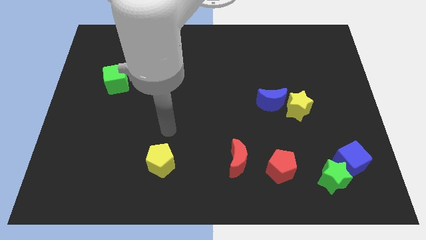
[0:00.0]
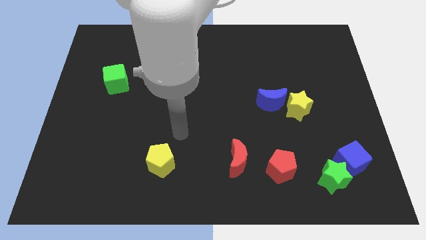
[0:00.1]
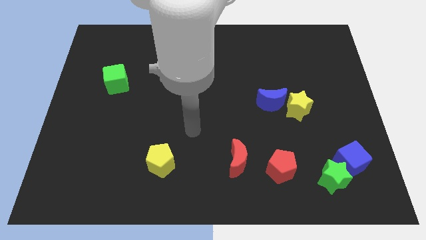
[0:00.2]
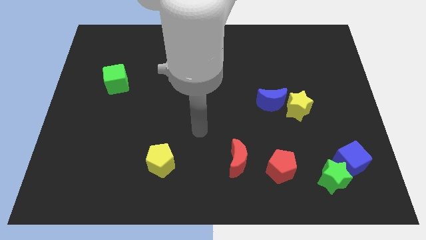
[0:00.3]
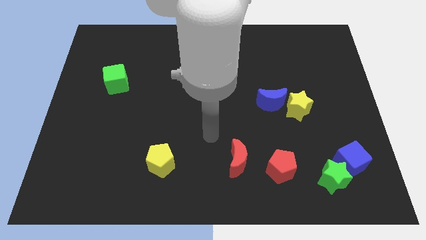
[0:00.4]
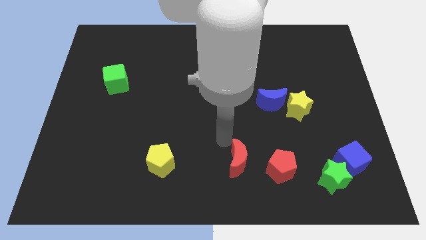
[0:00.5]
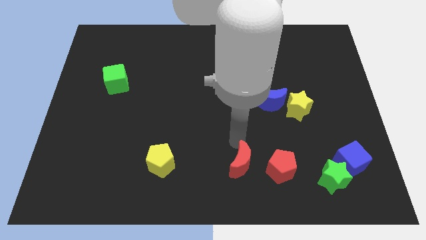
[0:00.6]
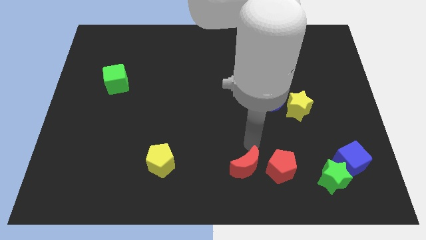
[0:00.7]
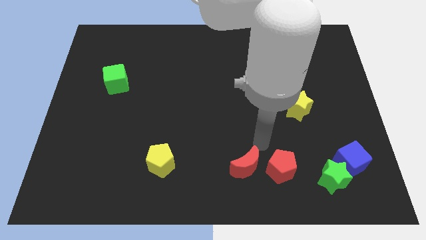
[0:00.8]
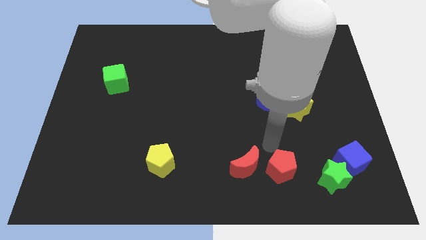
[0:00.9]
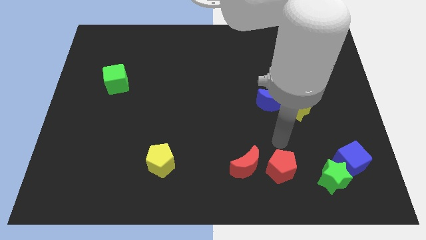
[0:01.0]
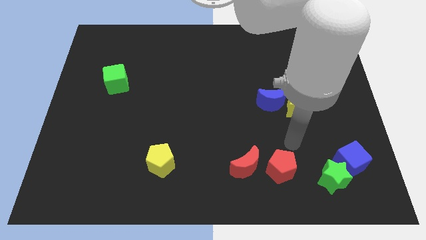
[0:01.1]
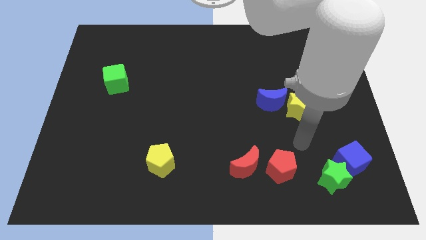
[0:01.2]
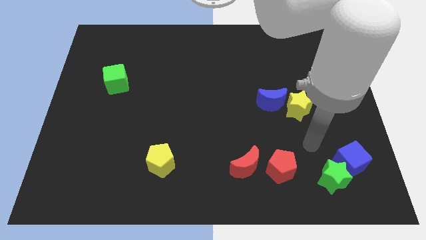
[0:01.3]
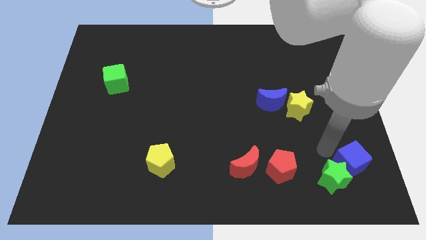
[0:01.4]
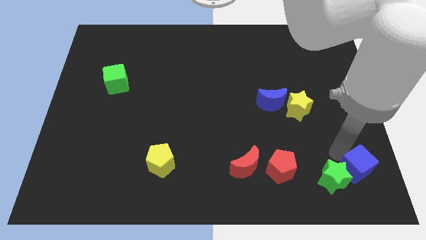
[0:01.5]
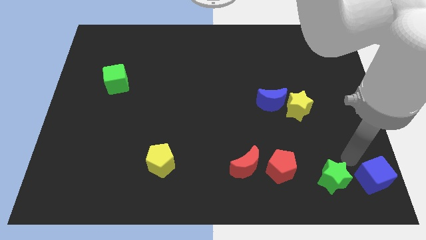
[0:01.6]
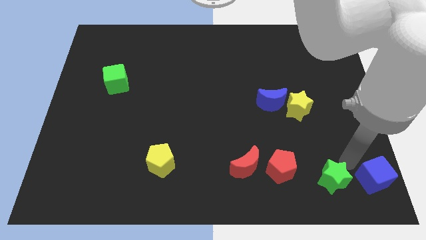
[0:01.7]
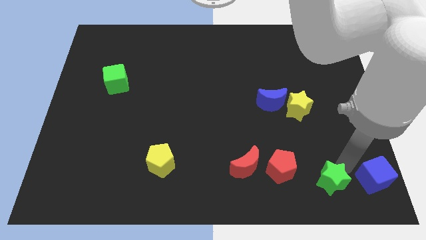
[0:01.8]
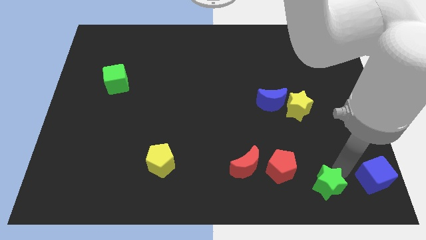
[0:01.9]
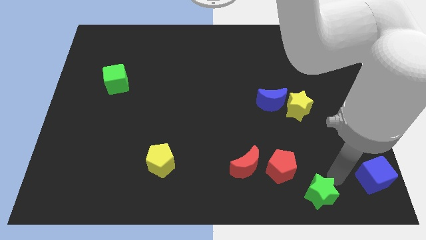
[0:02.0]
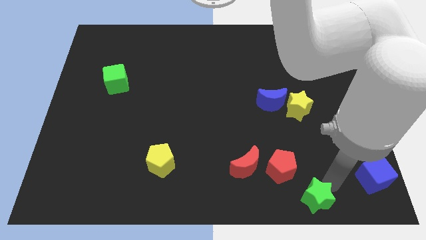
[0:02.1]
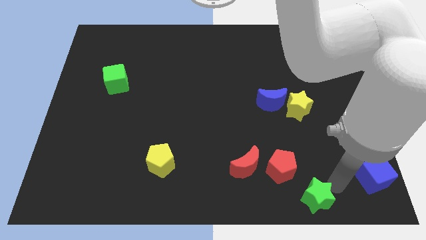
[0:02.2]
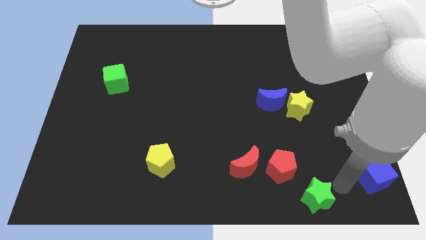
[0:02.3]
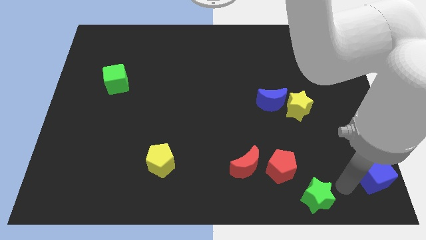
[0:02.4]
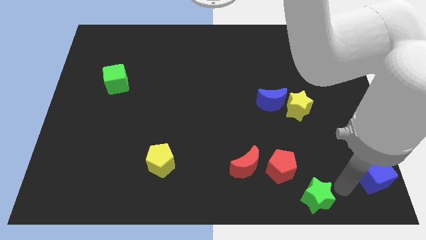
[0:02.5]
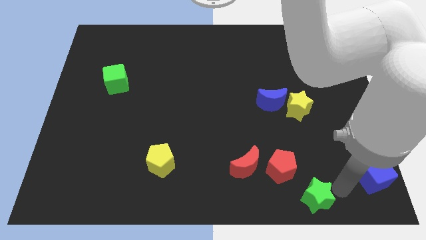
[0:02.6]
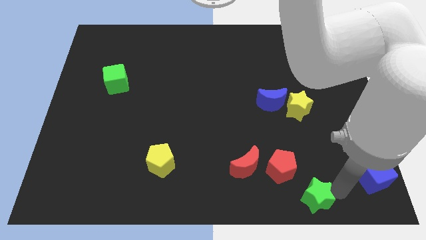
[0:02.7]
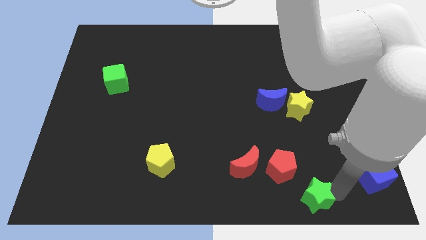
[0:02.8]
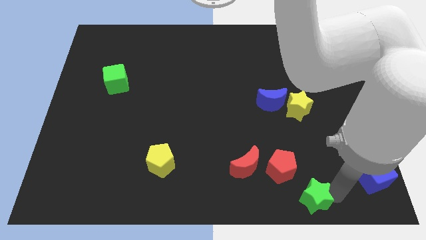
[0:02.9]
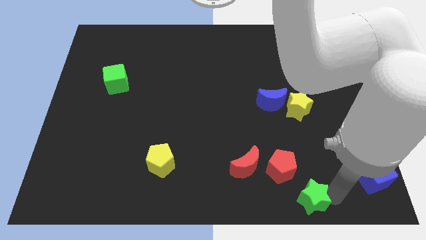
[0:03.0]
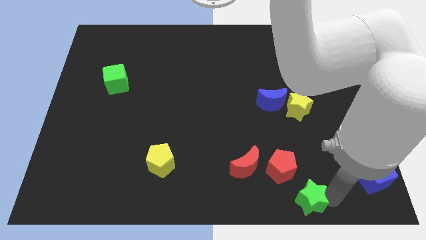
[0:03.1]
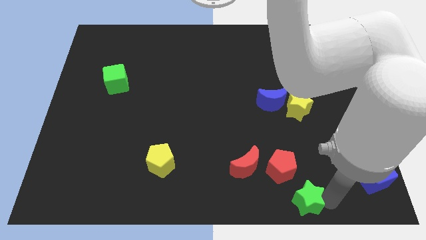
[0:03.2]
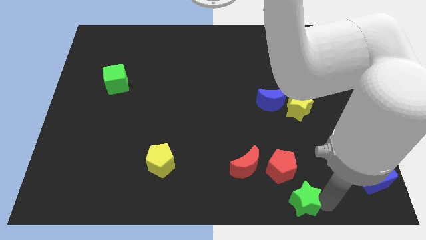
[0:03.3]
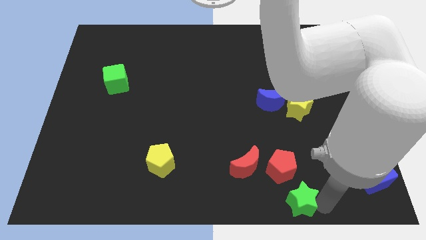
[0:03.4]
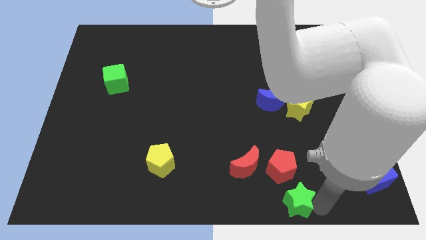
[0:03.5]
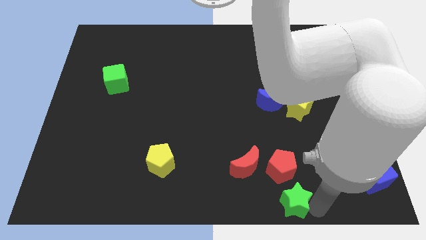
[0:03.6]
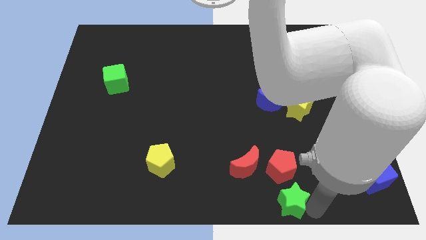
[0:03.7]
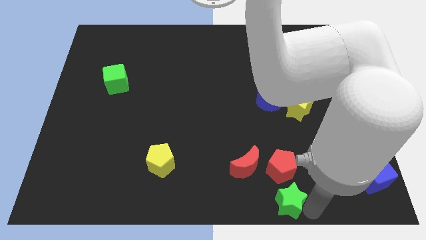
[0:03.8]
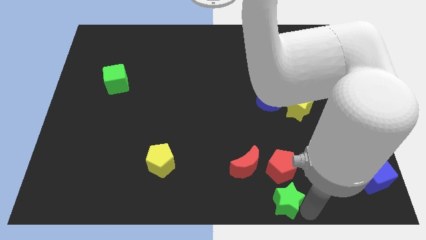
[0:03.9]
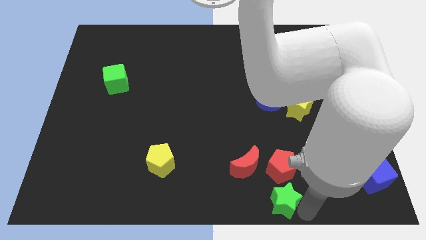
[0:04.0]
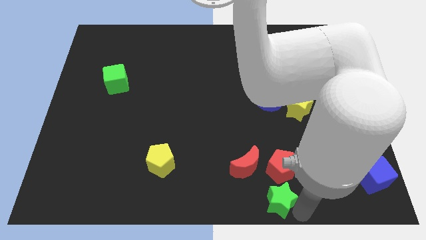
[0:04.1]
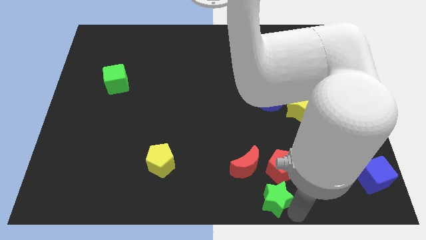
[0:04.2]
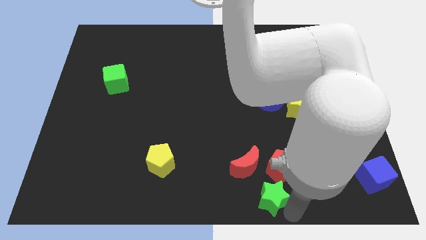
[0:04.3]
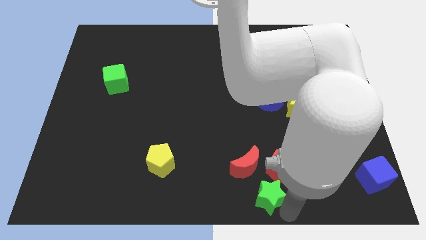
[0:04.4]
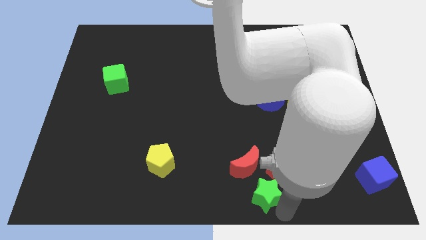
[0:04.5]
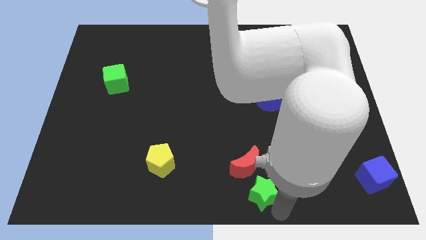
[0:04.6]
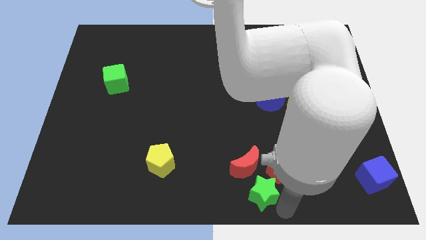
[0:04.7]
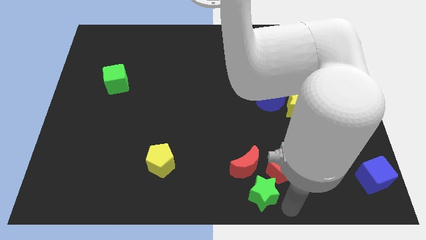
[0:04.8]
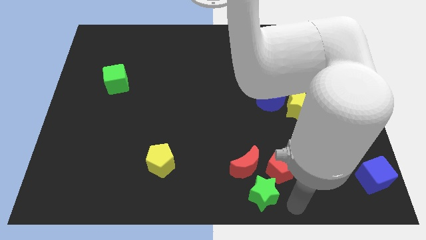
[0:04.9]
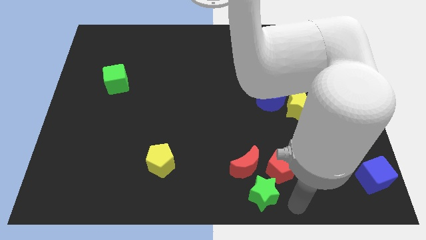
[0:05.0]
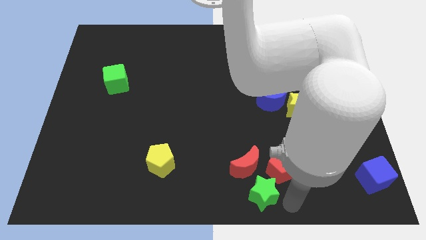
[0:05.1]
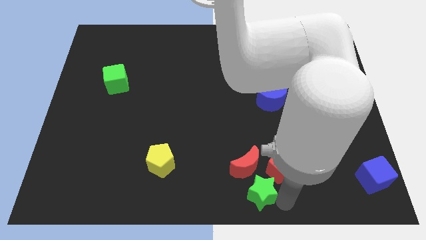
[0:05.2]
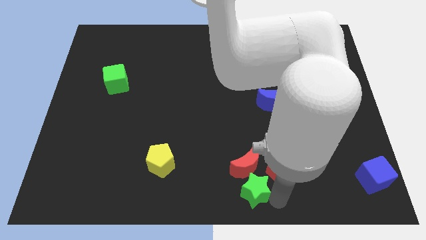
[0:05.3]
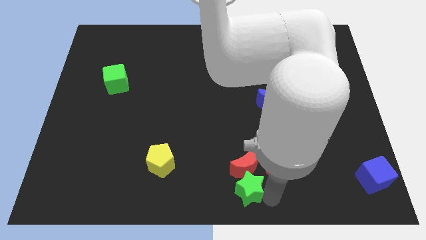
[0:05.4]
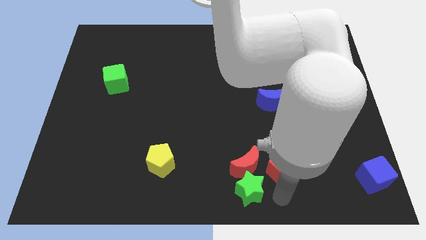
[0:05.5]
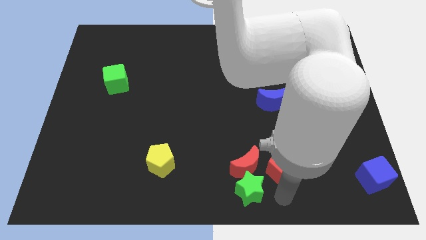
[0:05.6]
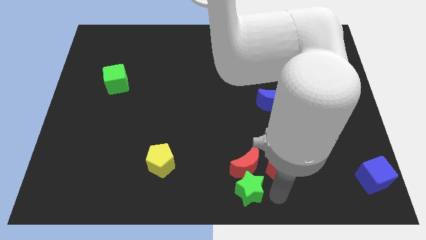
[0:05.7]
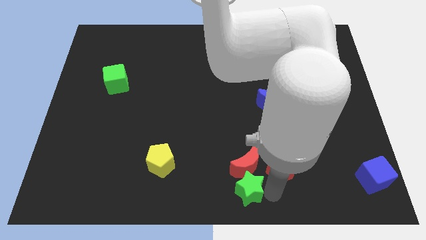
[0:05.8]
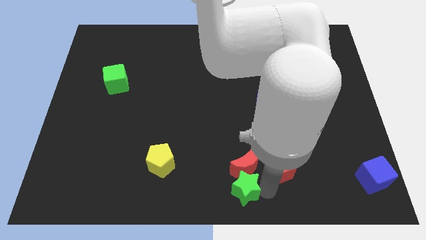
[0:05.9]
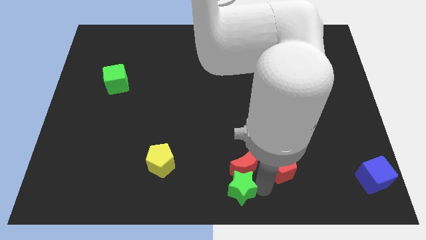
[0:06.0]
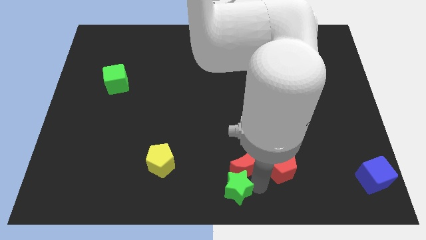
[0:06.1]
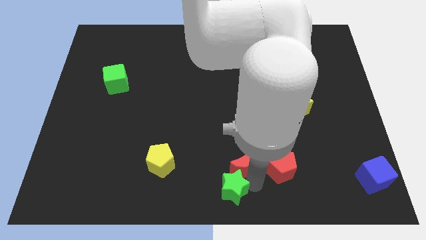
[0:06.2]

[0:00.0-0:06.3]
slide the green star to the left

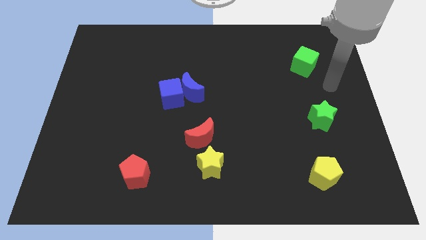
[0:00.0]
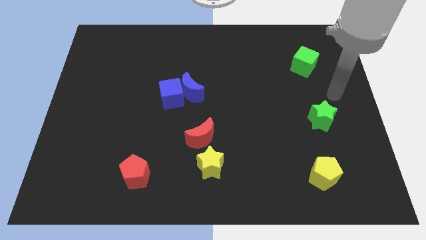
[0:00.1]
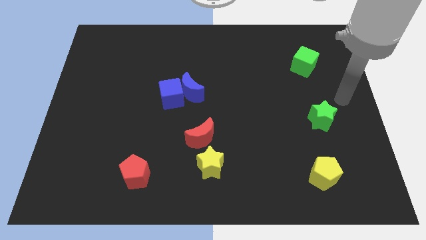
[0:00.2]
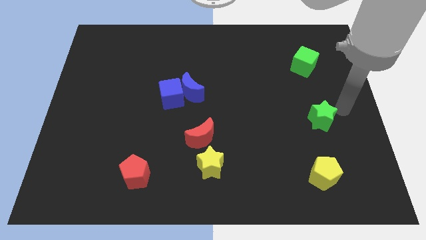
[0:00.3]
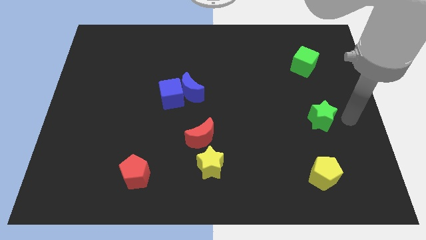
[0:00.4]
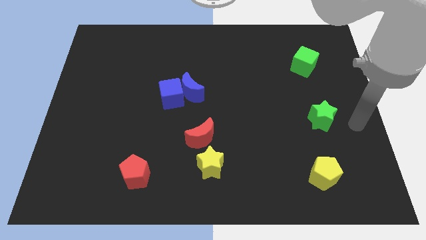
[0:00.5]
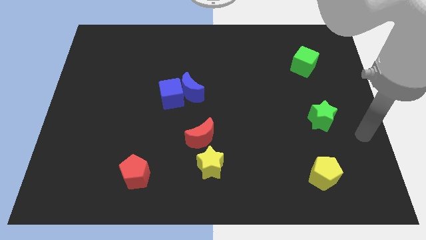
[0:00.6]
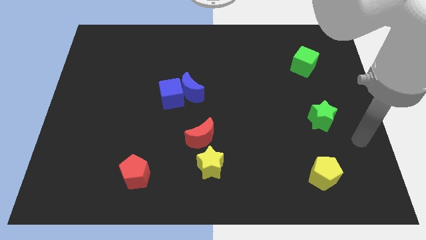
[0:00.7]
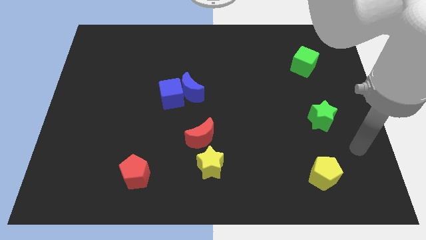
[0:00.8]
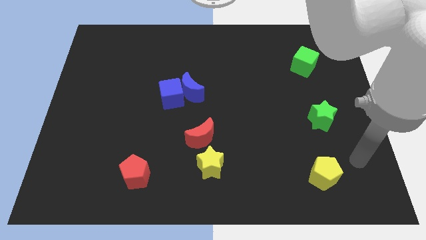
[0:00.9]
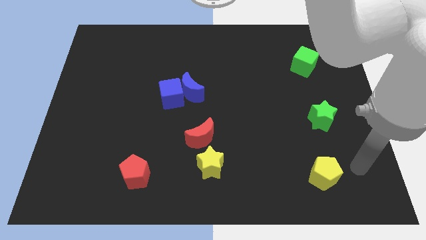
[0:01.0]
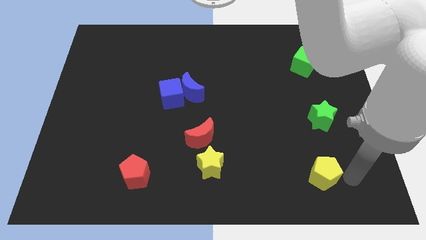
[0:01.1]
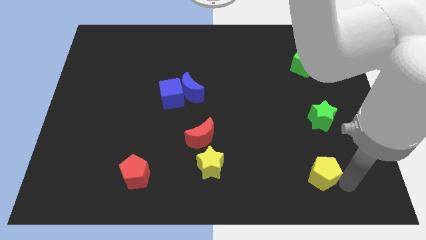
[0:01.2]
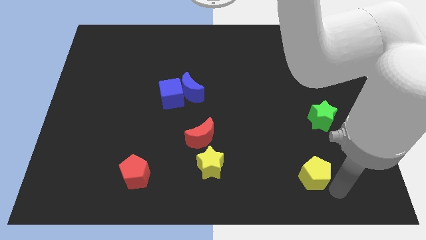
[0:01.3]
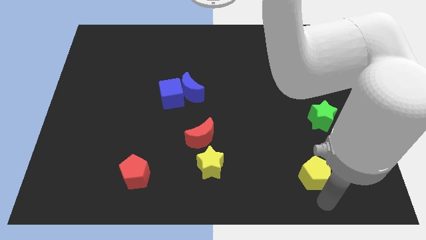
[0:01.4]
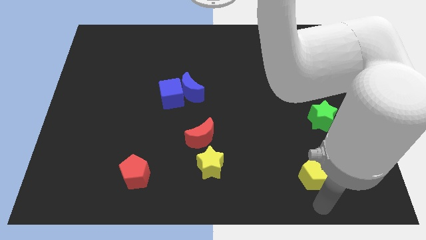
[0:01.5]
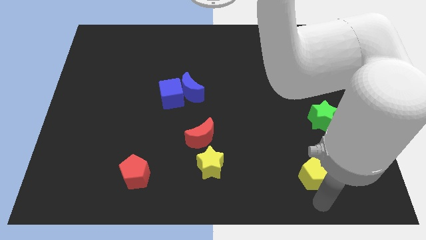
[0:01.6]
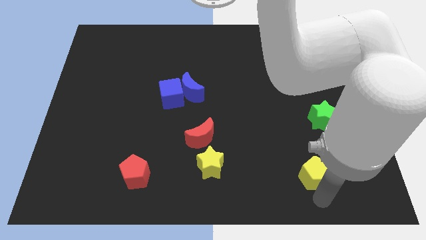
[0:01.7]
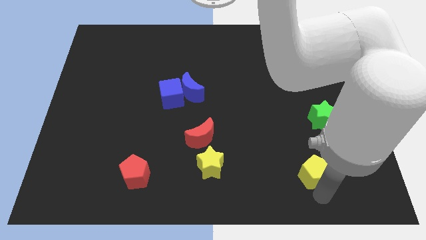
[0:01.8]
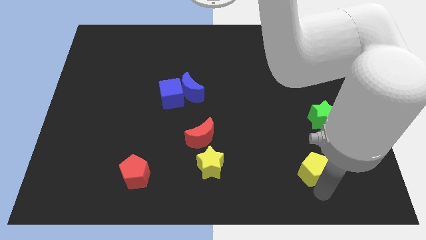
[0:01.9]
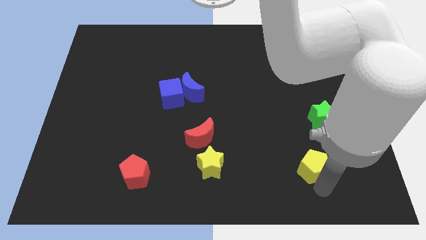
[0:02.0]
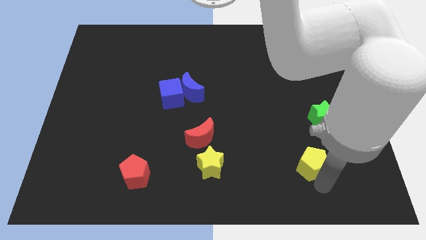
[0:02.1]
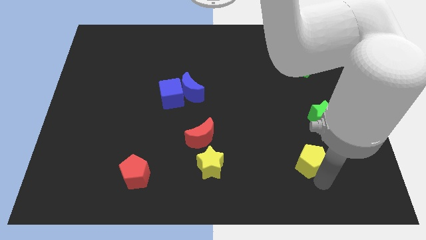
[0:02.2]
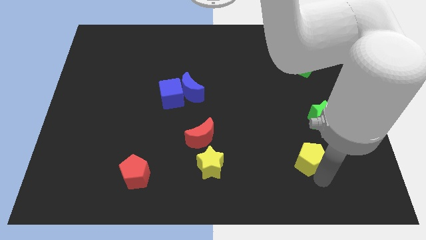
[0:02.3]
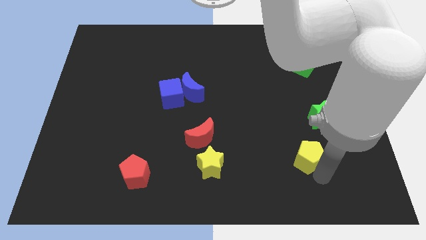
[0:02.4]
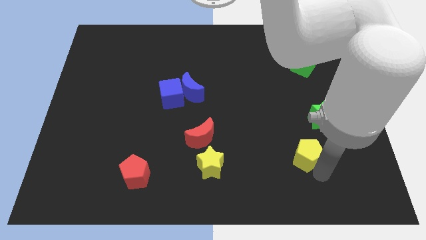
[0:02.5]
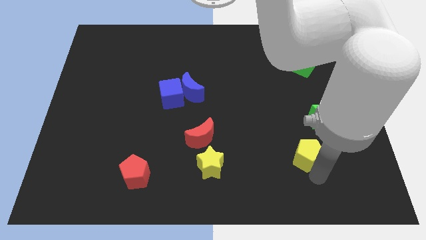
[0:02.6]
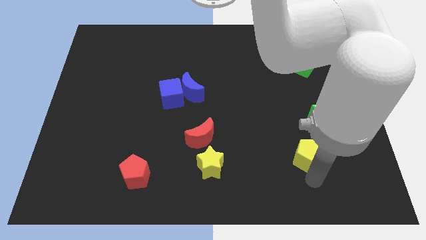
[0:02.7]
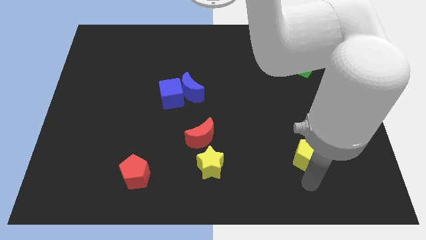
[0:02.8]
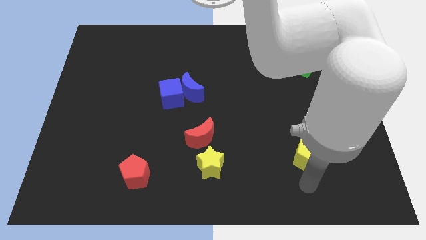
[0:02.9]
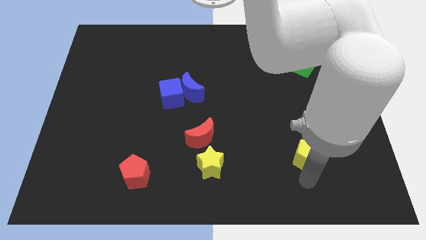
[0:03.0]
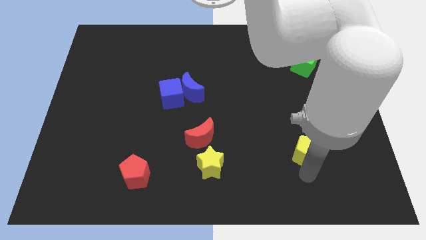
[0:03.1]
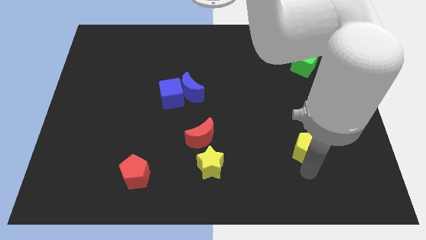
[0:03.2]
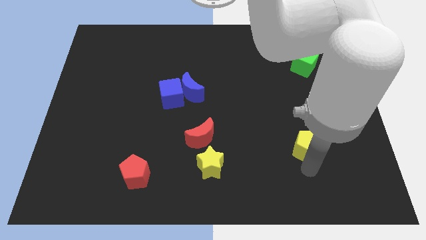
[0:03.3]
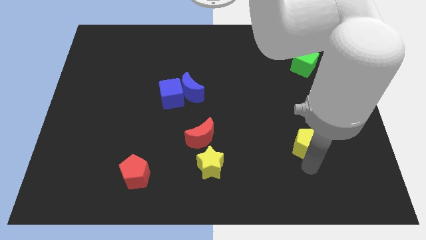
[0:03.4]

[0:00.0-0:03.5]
slightly slide the yellow pentagon upwards
